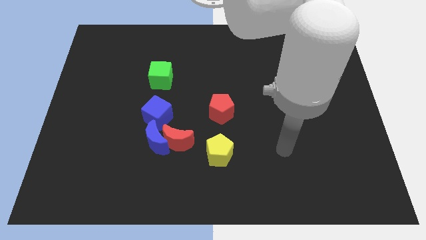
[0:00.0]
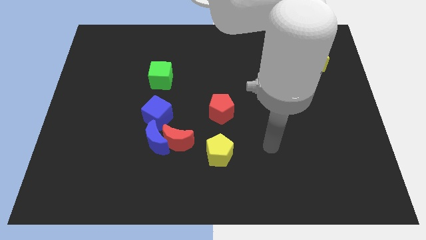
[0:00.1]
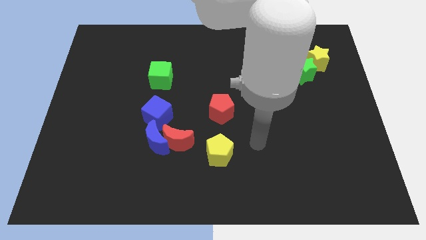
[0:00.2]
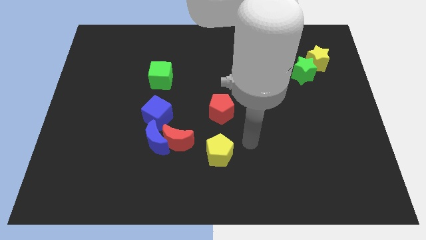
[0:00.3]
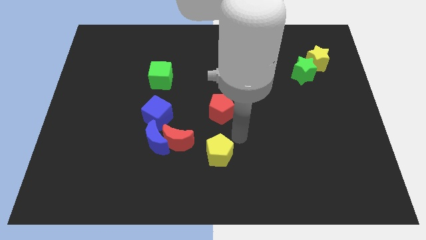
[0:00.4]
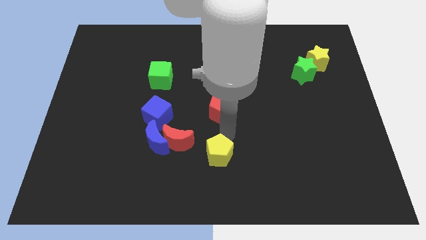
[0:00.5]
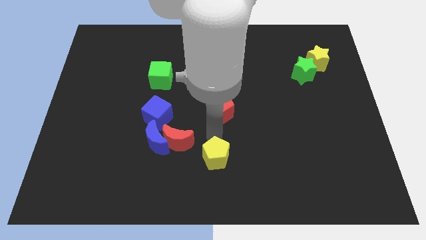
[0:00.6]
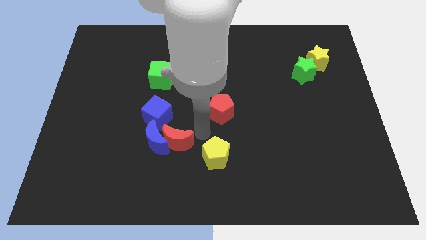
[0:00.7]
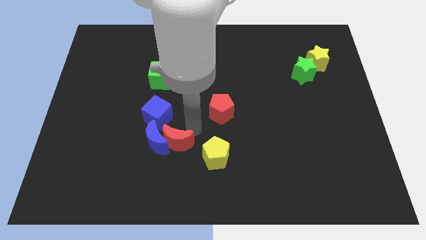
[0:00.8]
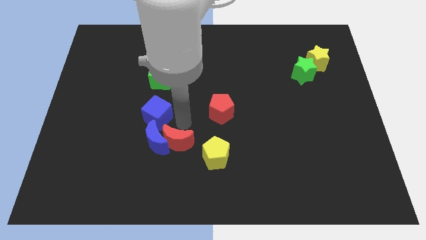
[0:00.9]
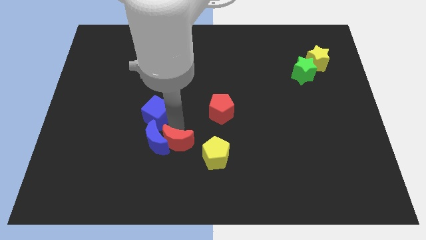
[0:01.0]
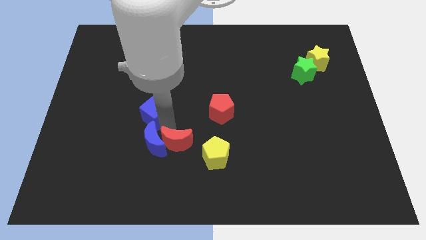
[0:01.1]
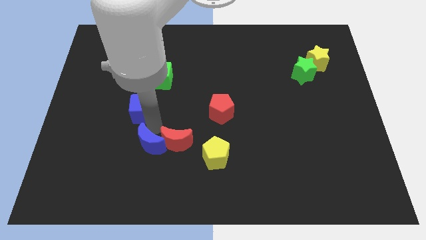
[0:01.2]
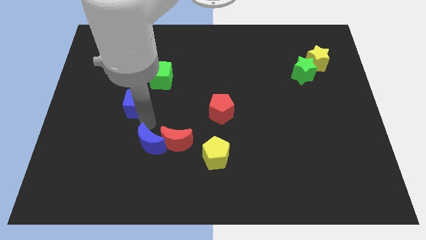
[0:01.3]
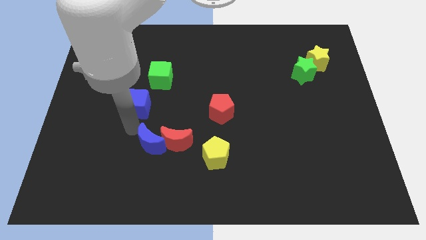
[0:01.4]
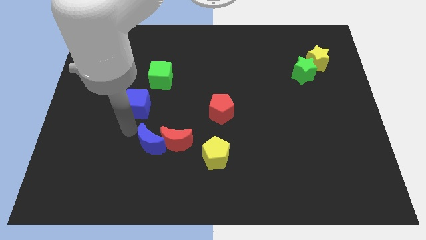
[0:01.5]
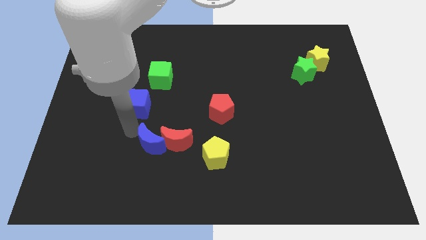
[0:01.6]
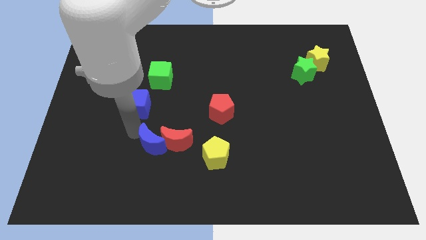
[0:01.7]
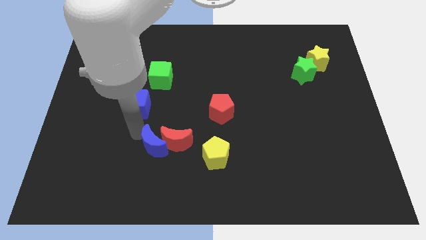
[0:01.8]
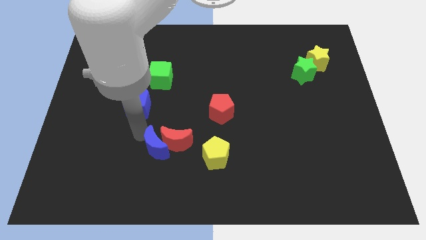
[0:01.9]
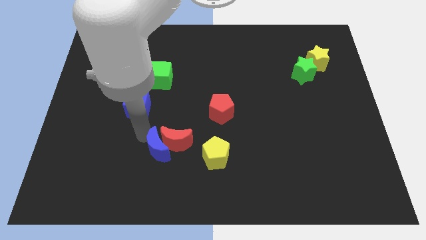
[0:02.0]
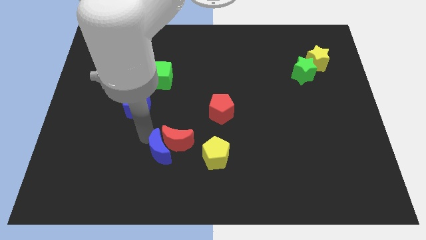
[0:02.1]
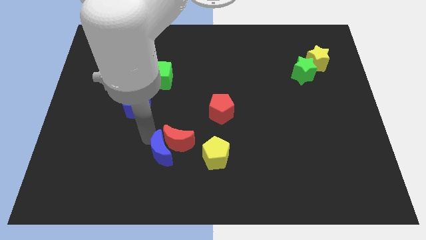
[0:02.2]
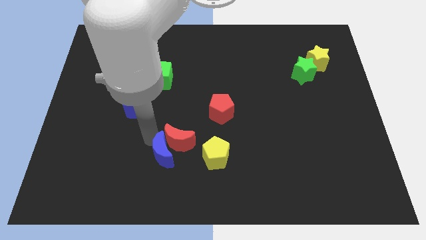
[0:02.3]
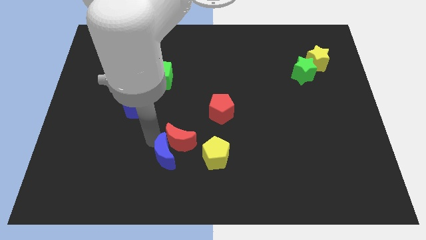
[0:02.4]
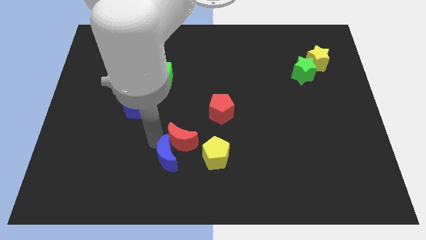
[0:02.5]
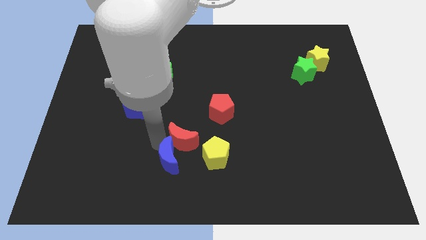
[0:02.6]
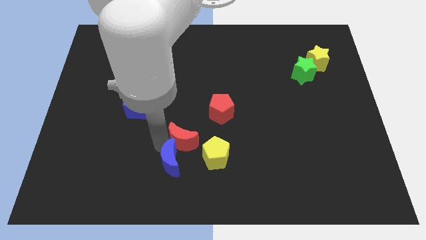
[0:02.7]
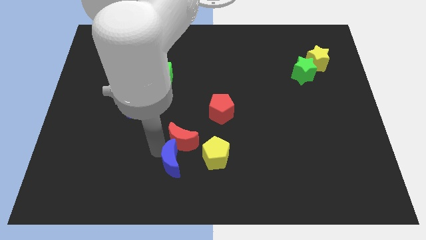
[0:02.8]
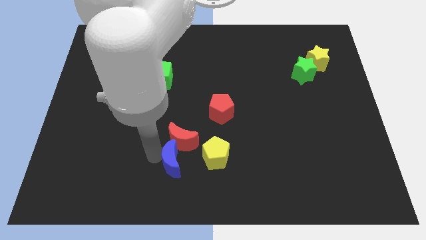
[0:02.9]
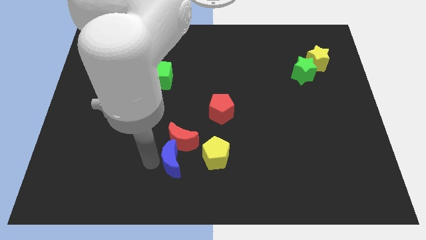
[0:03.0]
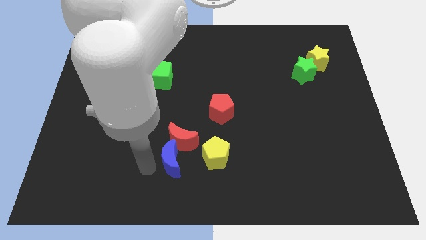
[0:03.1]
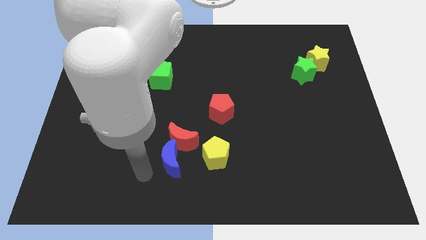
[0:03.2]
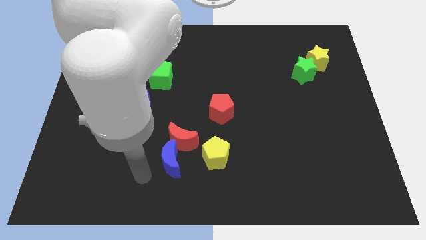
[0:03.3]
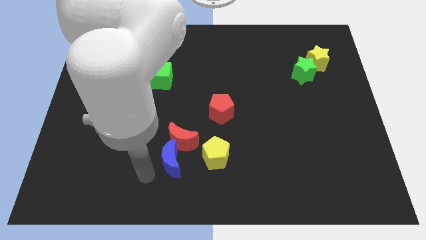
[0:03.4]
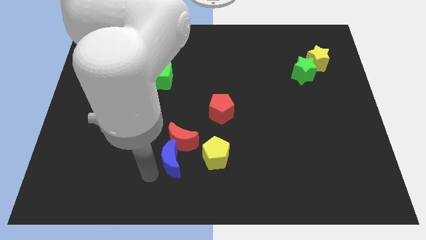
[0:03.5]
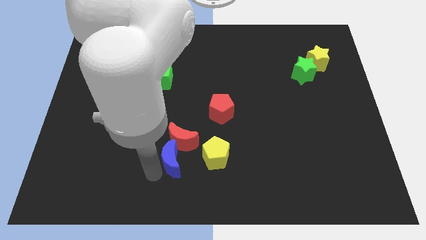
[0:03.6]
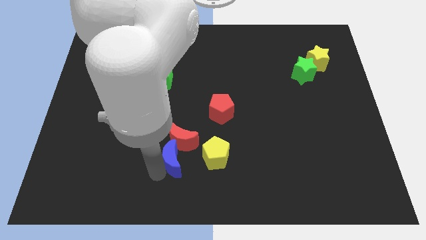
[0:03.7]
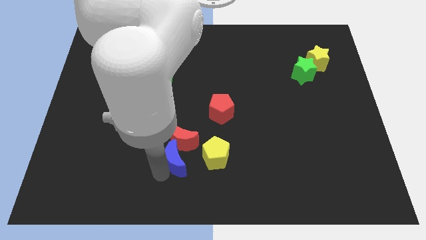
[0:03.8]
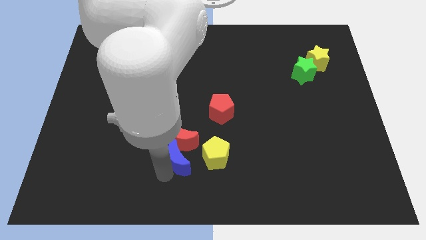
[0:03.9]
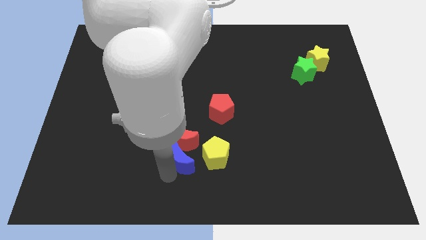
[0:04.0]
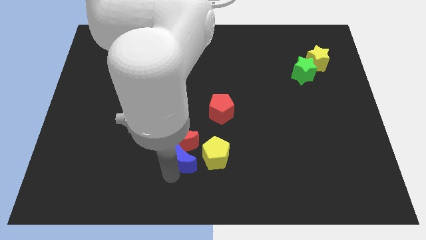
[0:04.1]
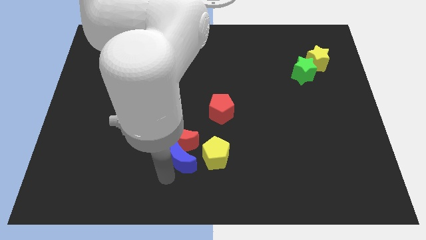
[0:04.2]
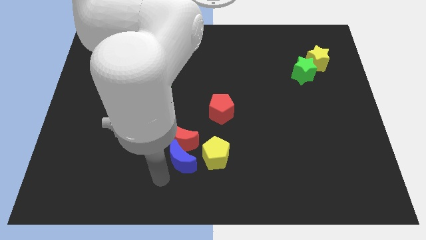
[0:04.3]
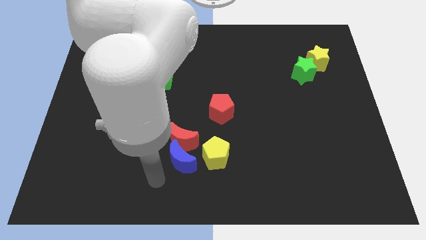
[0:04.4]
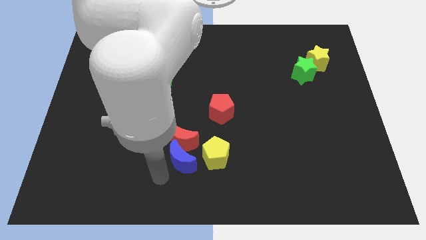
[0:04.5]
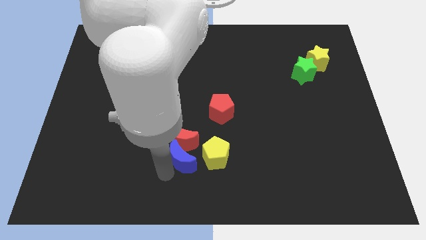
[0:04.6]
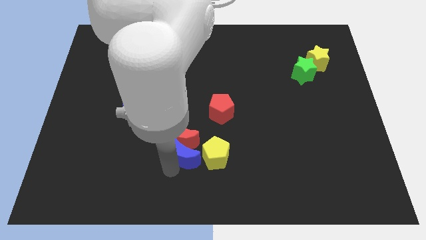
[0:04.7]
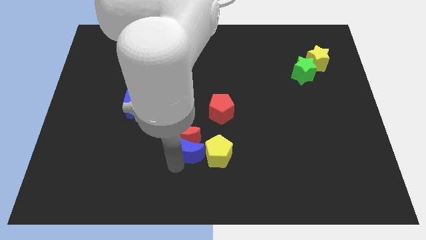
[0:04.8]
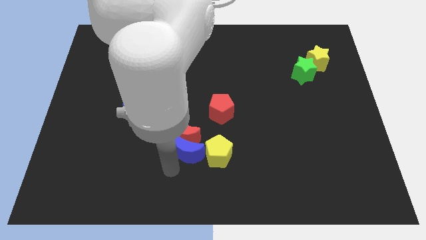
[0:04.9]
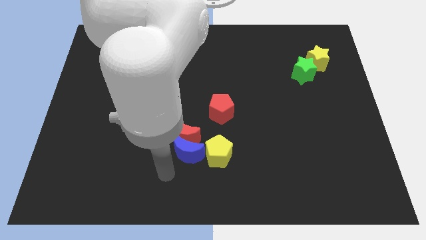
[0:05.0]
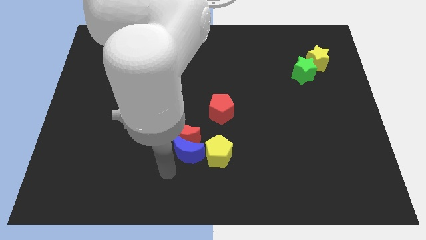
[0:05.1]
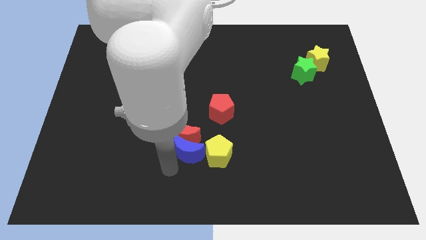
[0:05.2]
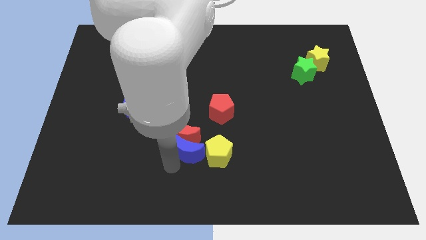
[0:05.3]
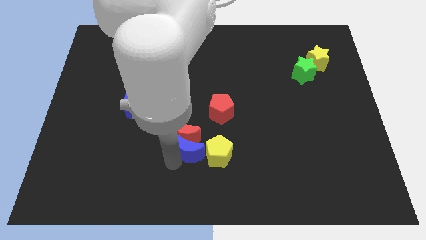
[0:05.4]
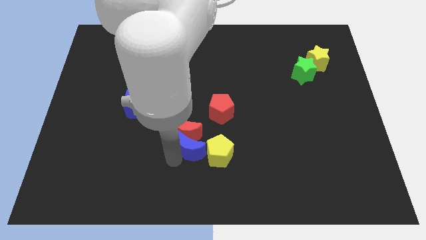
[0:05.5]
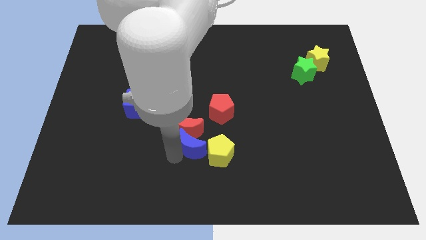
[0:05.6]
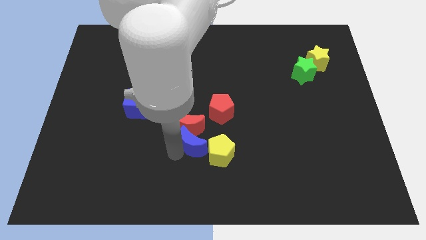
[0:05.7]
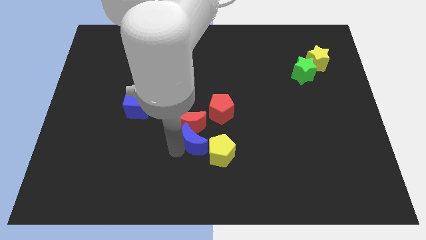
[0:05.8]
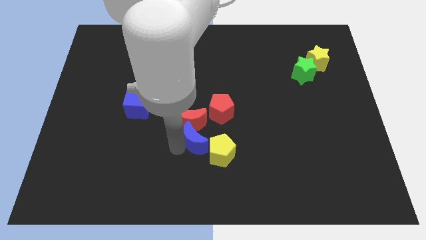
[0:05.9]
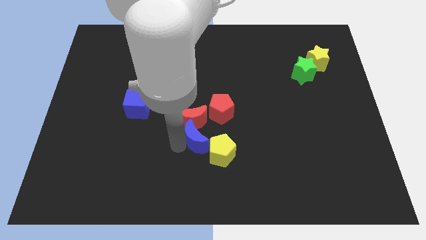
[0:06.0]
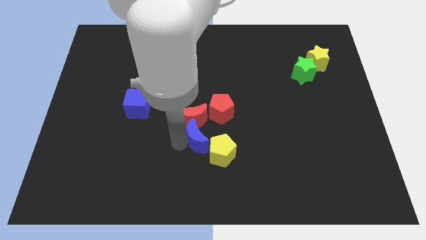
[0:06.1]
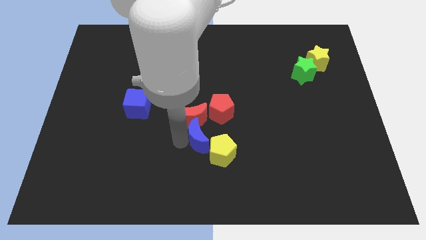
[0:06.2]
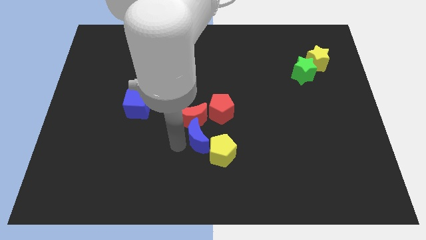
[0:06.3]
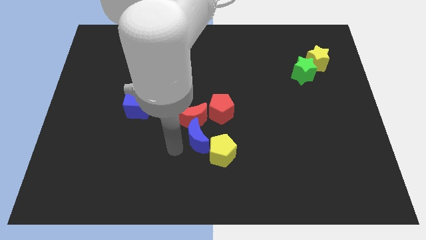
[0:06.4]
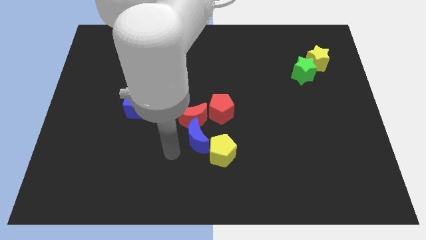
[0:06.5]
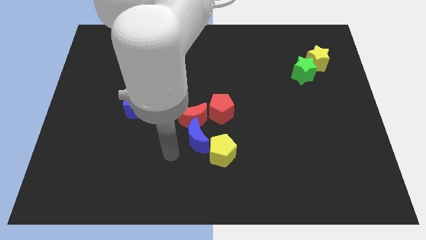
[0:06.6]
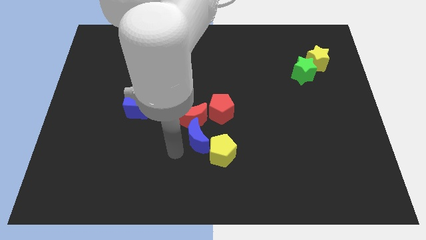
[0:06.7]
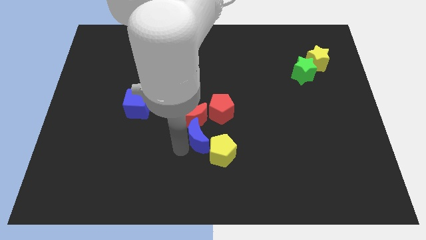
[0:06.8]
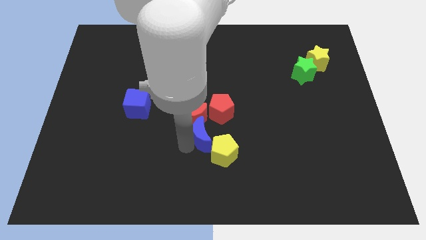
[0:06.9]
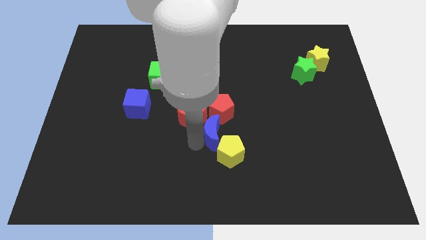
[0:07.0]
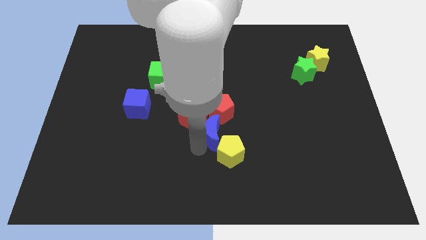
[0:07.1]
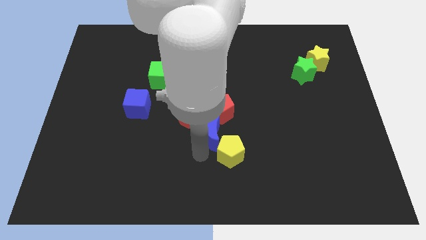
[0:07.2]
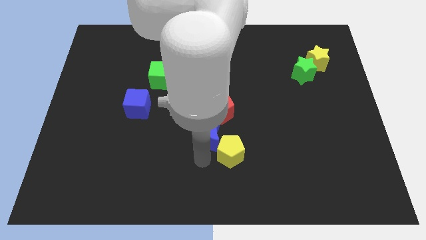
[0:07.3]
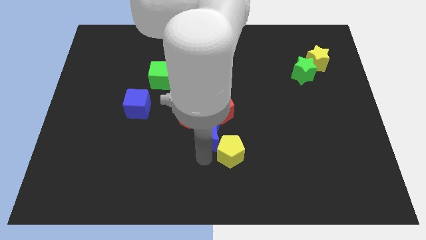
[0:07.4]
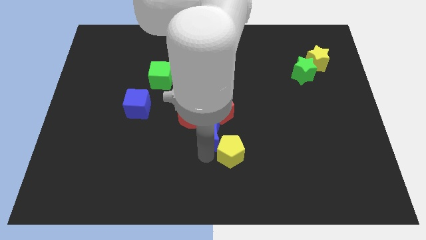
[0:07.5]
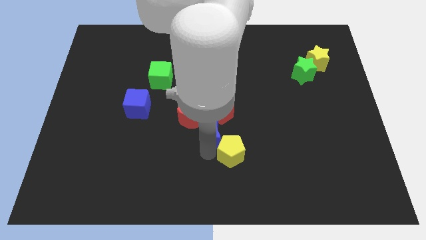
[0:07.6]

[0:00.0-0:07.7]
push the blue moon next to the red pentagon

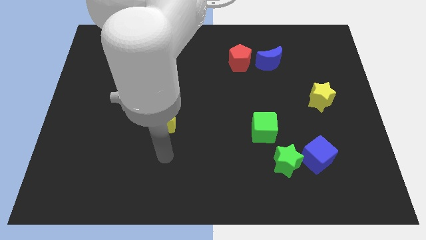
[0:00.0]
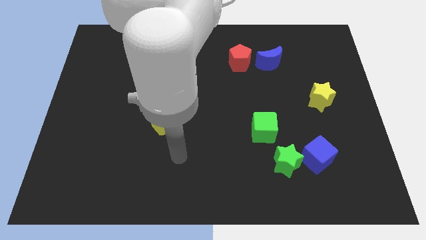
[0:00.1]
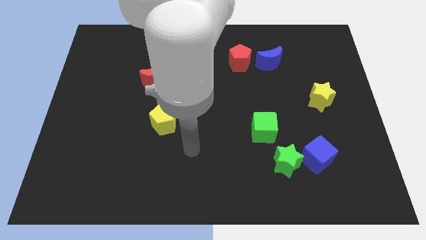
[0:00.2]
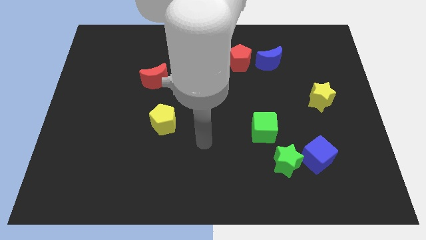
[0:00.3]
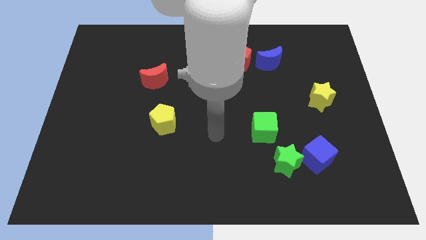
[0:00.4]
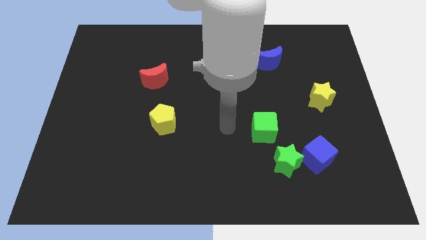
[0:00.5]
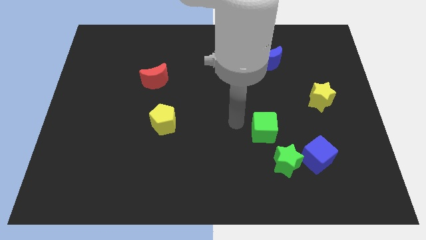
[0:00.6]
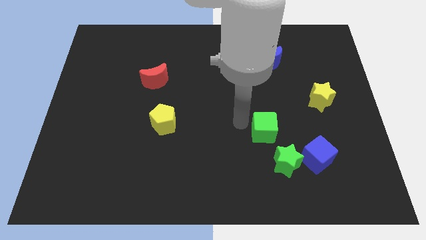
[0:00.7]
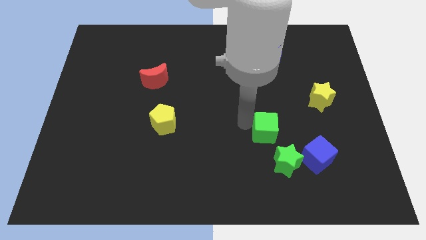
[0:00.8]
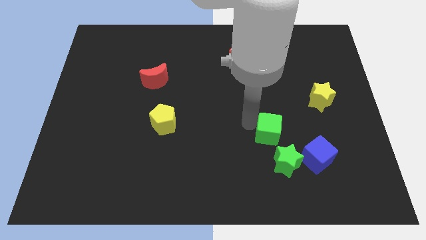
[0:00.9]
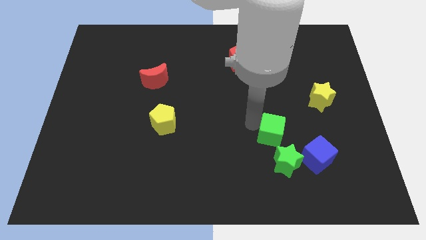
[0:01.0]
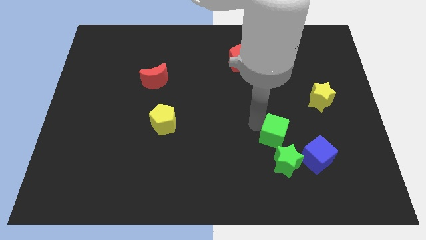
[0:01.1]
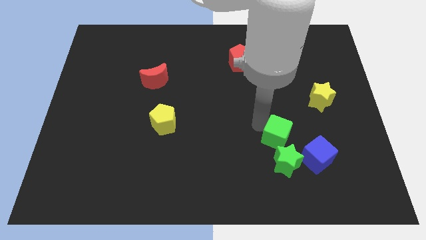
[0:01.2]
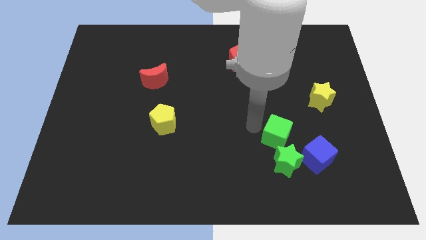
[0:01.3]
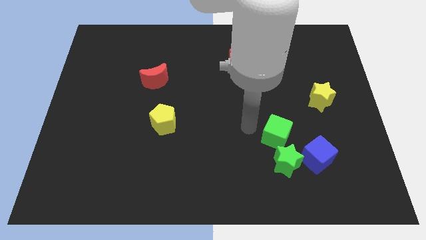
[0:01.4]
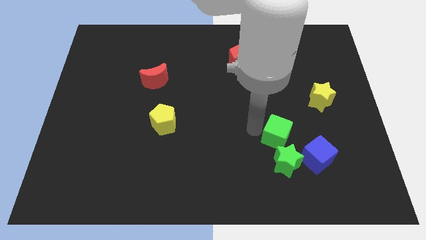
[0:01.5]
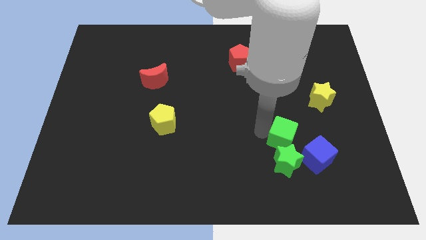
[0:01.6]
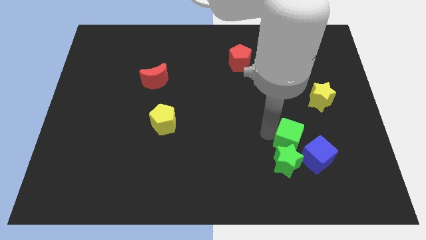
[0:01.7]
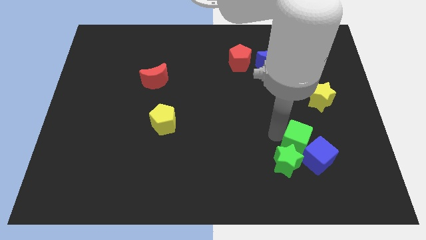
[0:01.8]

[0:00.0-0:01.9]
push the green cube next to the blue cube
